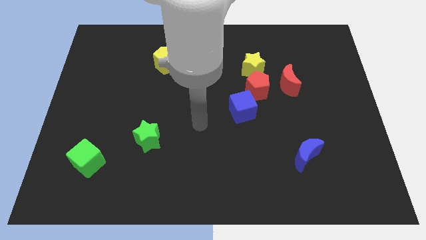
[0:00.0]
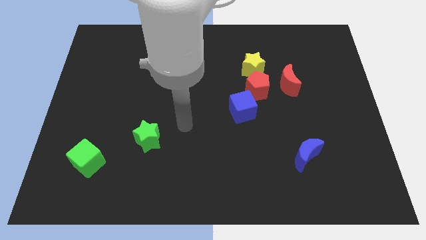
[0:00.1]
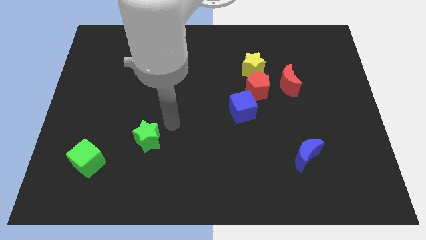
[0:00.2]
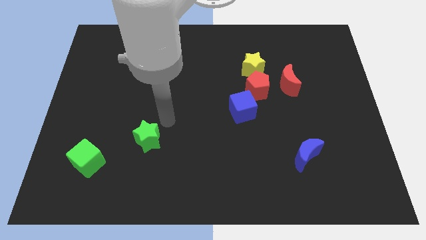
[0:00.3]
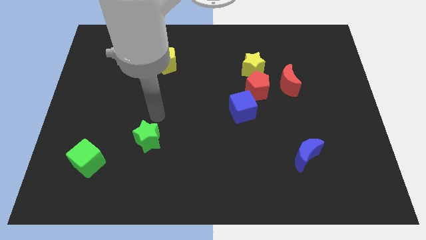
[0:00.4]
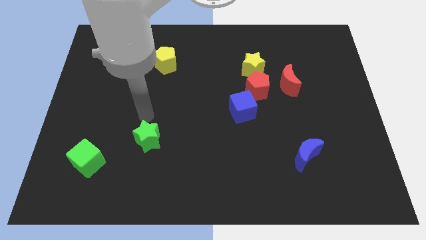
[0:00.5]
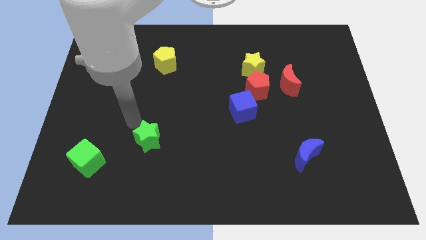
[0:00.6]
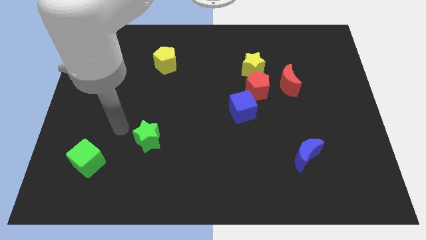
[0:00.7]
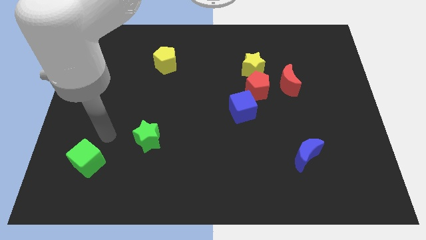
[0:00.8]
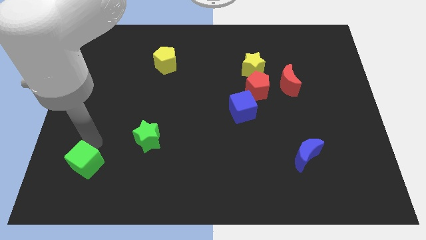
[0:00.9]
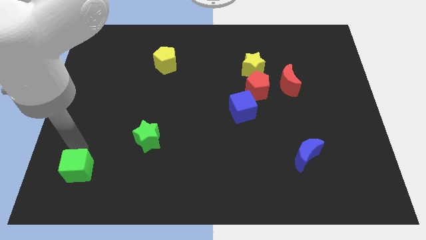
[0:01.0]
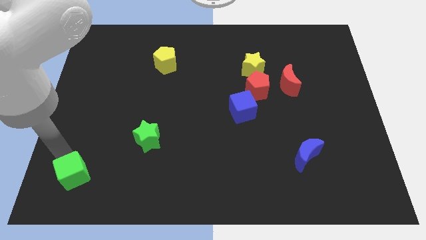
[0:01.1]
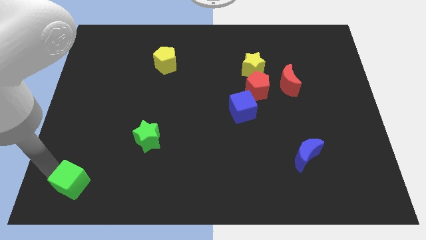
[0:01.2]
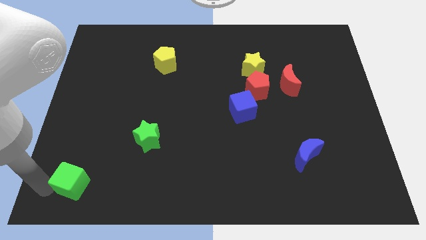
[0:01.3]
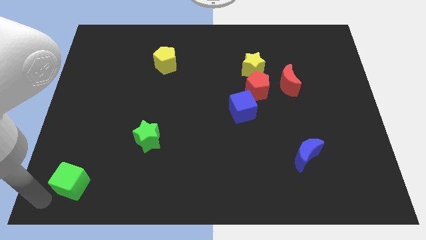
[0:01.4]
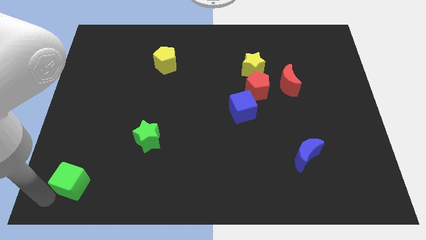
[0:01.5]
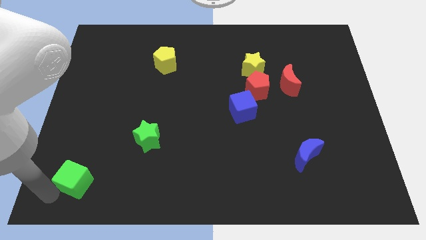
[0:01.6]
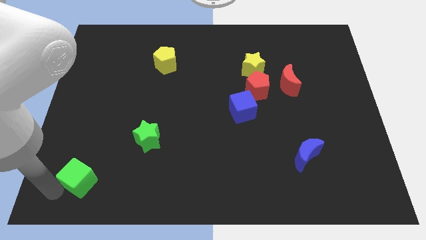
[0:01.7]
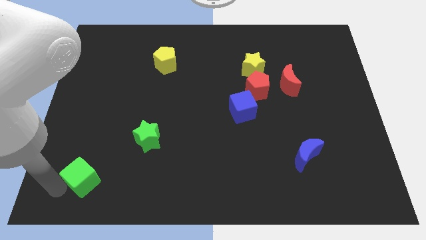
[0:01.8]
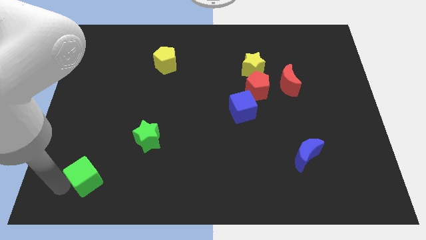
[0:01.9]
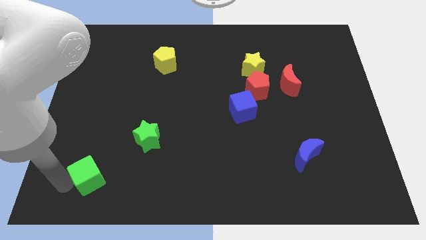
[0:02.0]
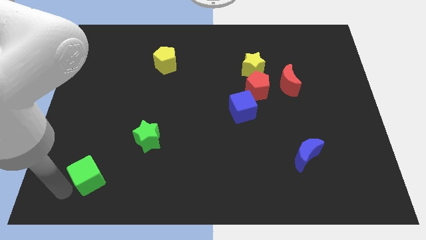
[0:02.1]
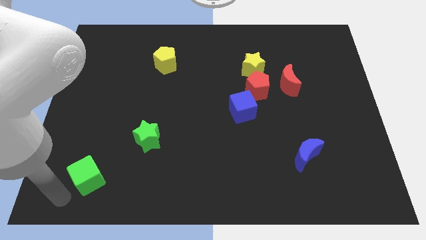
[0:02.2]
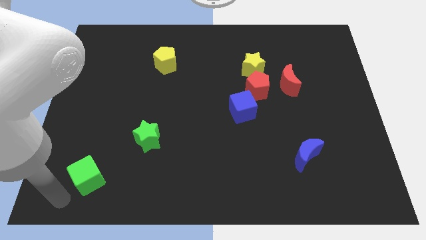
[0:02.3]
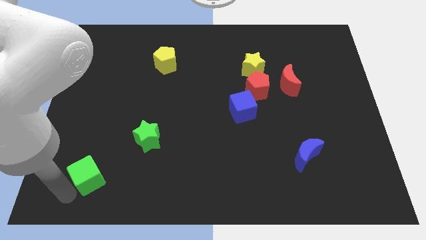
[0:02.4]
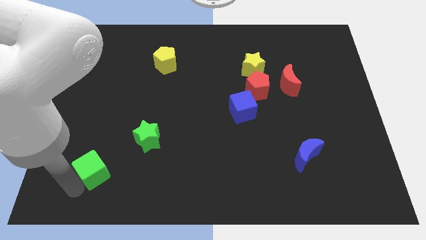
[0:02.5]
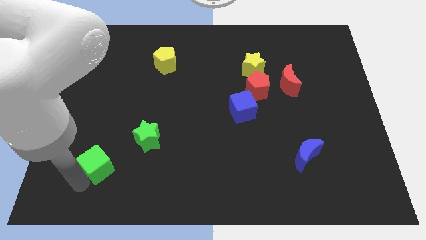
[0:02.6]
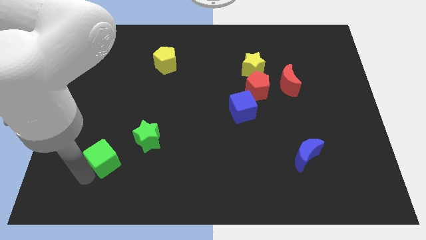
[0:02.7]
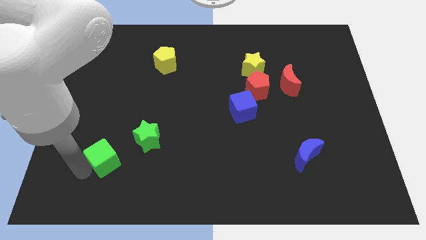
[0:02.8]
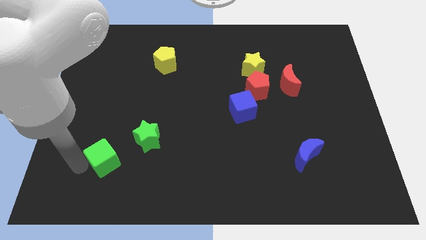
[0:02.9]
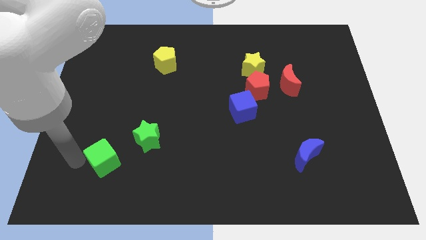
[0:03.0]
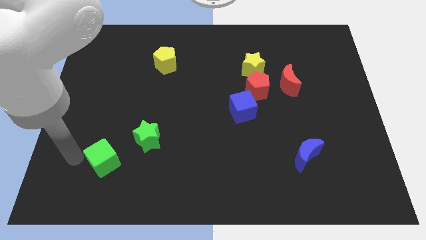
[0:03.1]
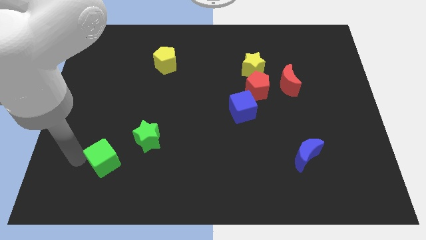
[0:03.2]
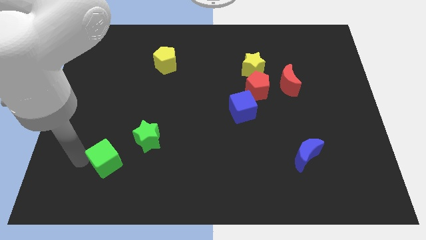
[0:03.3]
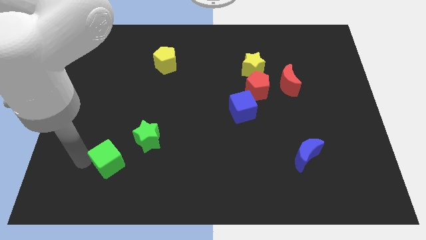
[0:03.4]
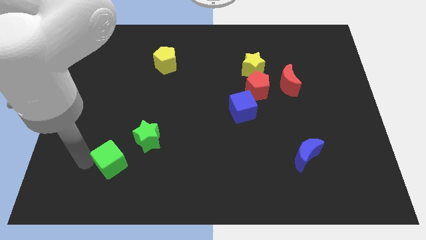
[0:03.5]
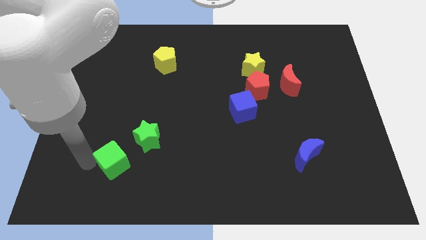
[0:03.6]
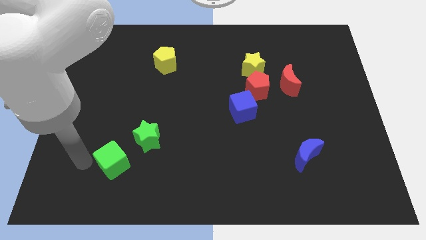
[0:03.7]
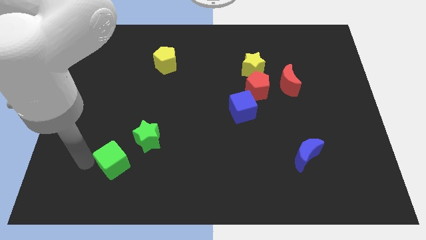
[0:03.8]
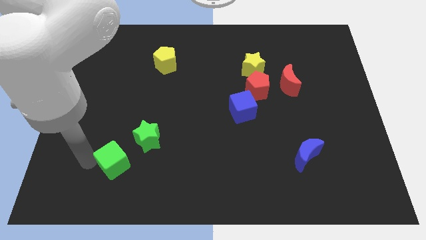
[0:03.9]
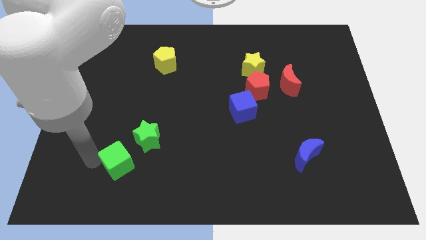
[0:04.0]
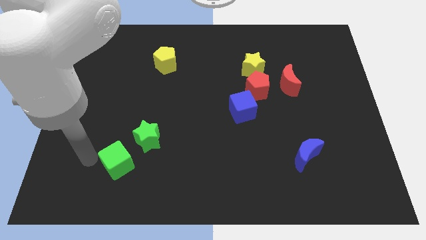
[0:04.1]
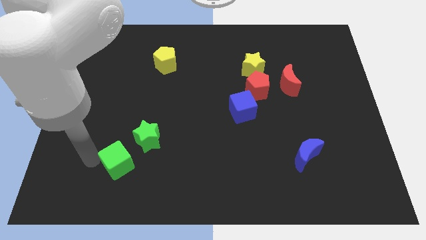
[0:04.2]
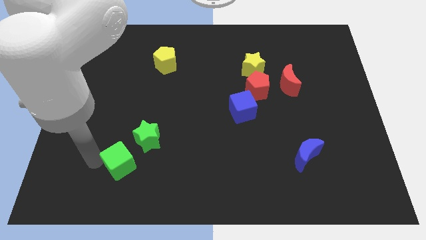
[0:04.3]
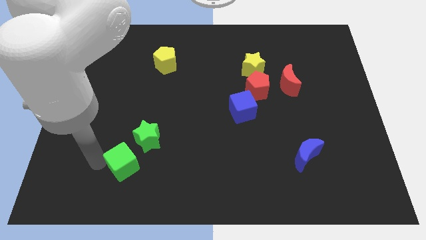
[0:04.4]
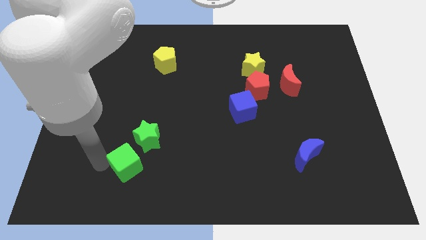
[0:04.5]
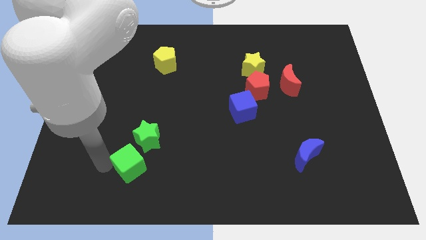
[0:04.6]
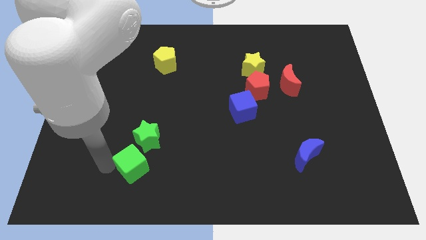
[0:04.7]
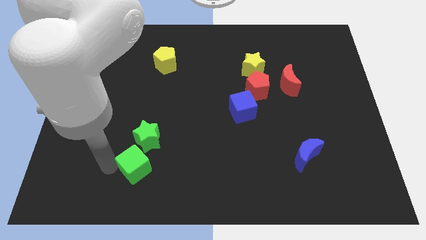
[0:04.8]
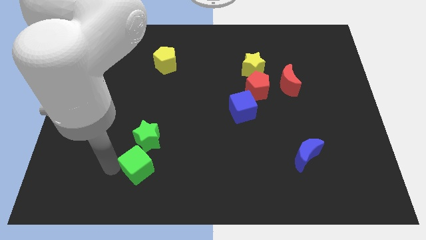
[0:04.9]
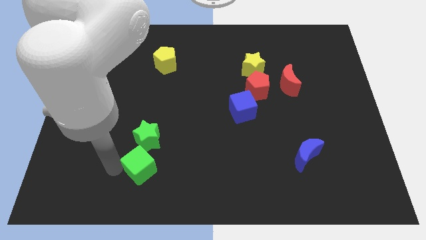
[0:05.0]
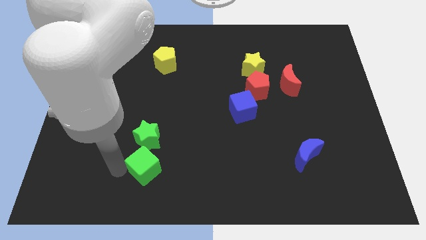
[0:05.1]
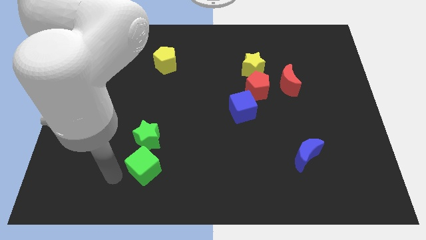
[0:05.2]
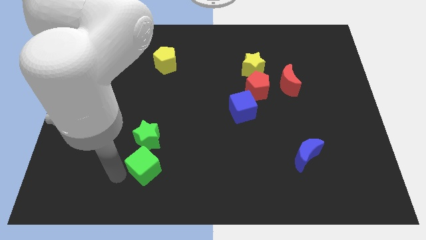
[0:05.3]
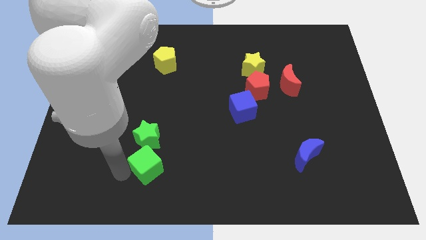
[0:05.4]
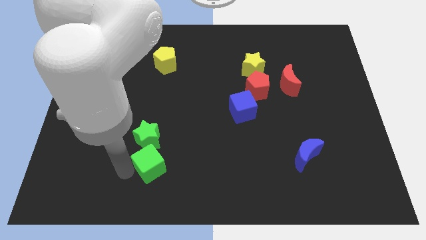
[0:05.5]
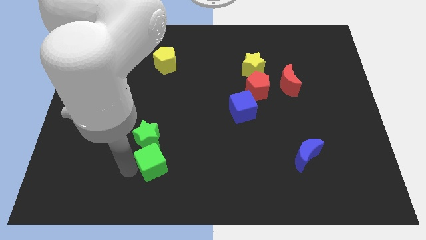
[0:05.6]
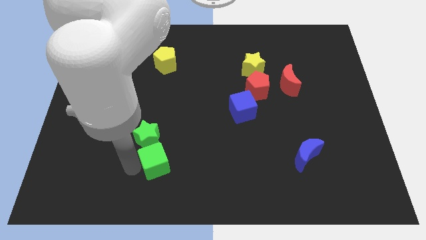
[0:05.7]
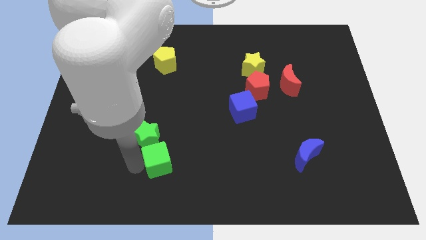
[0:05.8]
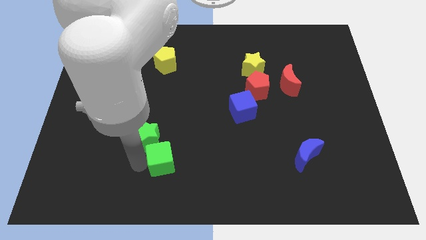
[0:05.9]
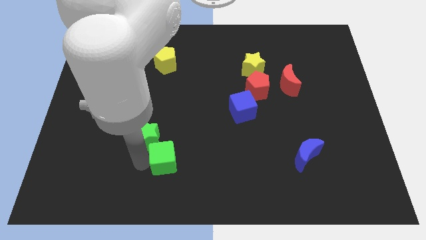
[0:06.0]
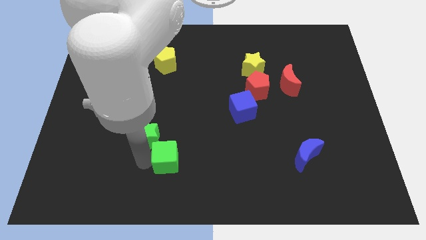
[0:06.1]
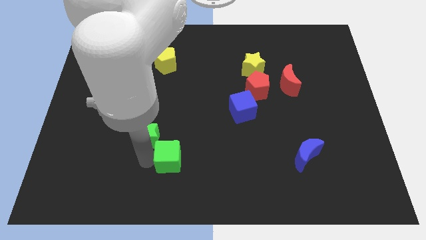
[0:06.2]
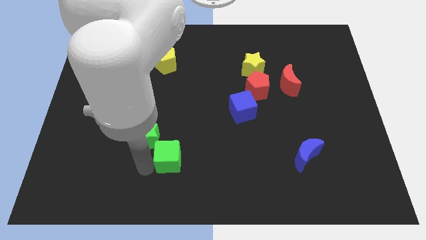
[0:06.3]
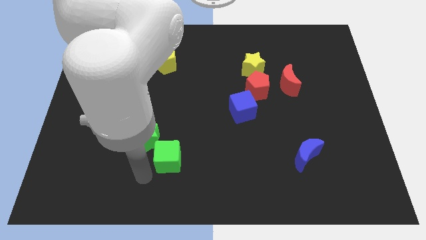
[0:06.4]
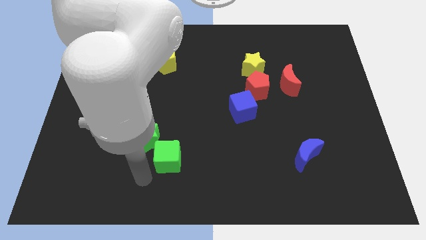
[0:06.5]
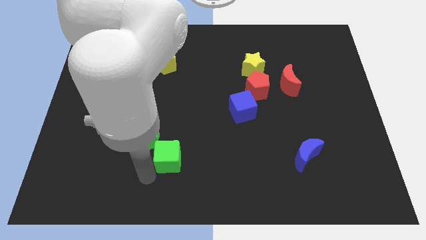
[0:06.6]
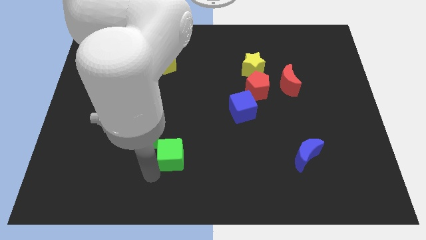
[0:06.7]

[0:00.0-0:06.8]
move the green cube to the right side of the green star

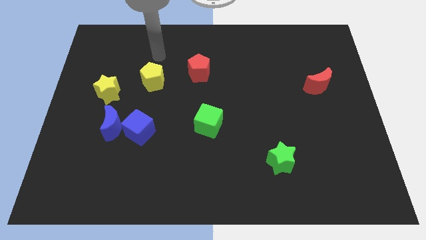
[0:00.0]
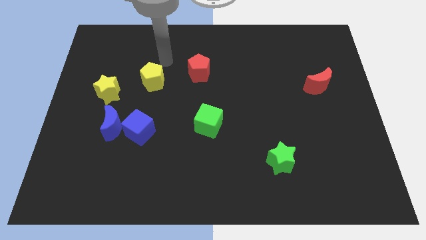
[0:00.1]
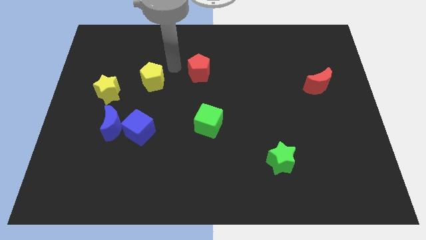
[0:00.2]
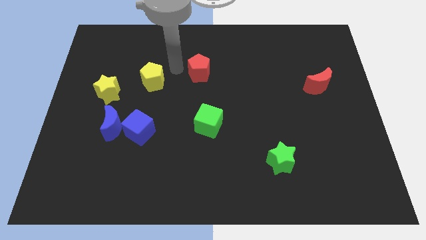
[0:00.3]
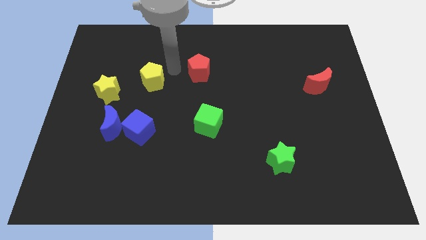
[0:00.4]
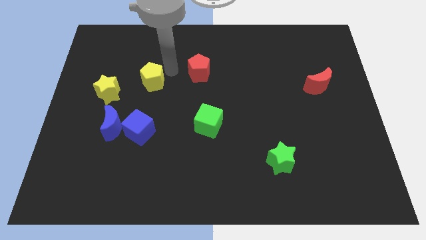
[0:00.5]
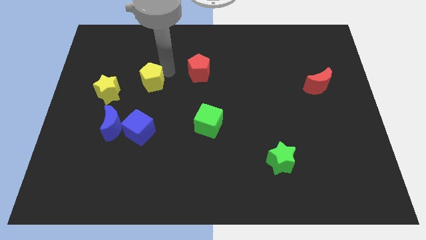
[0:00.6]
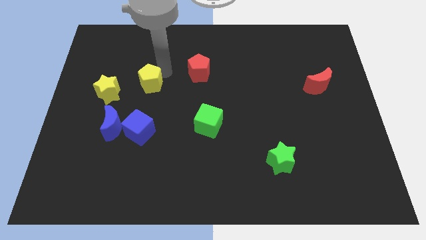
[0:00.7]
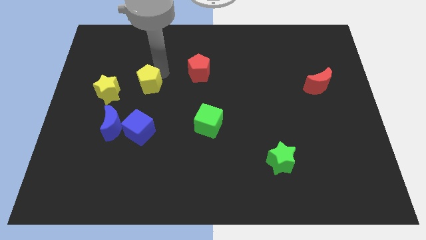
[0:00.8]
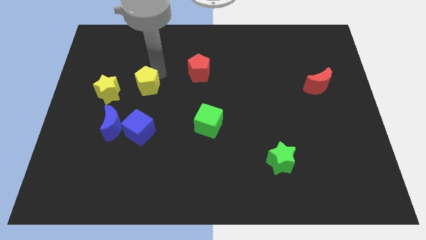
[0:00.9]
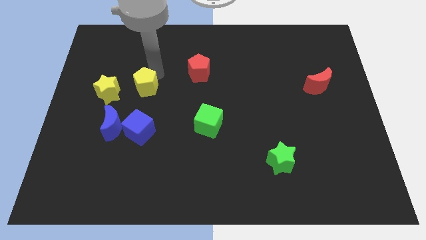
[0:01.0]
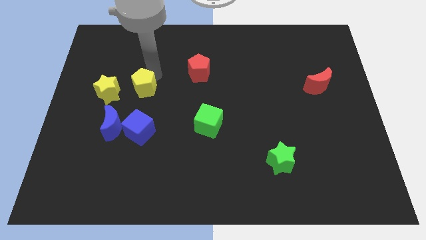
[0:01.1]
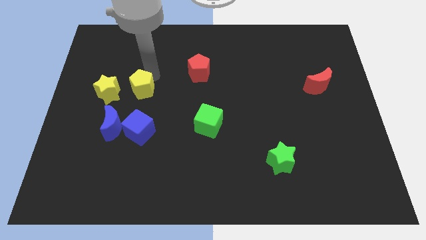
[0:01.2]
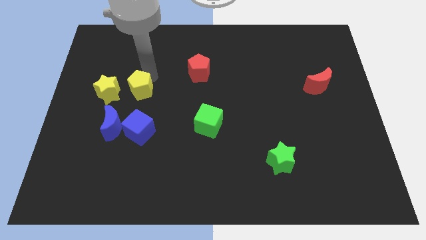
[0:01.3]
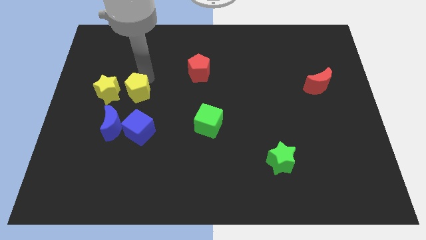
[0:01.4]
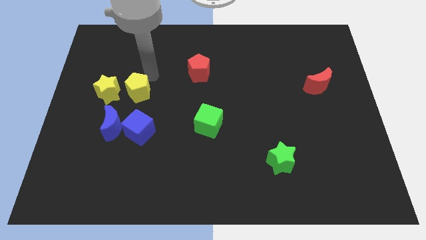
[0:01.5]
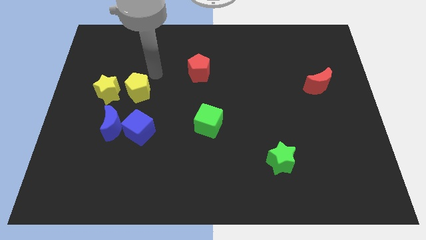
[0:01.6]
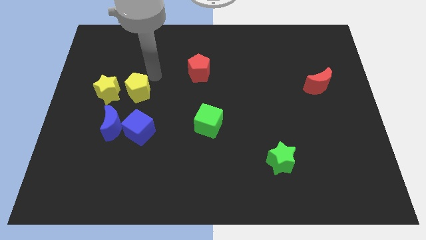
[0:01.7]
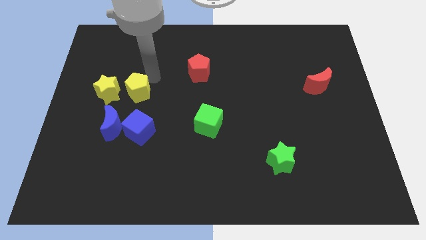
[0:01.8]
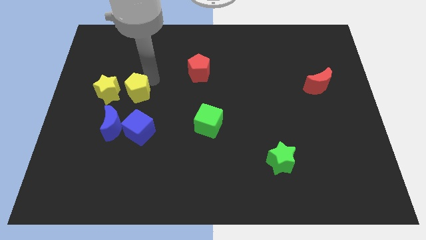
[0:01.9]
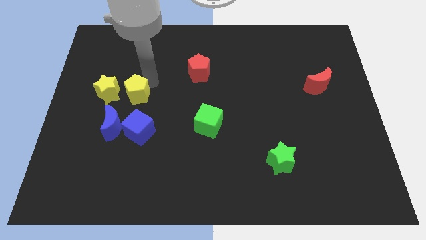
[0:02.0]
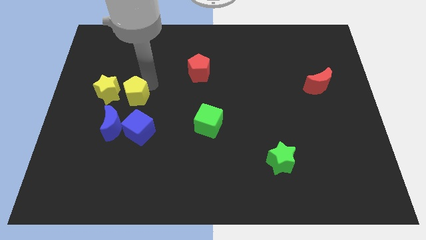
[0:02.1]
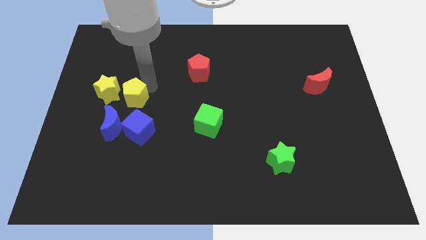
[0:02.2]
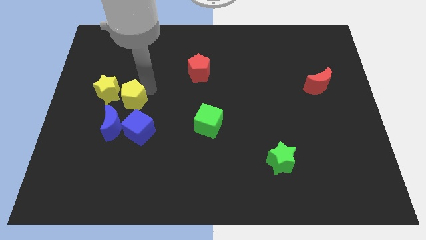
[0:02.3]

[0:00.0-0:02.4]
push the yellow pentagon to the top left side of the blue cube
